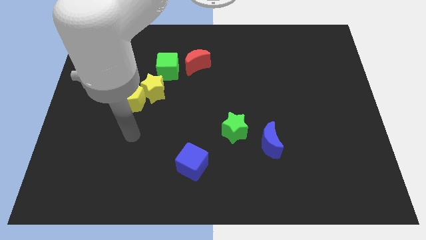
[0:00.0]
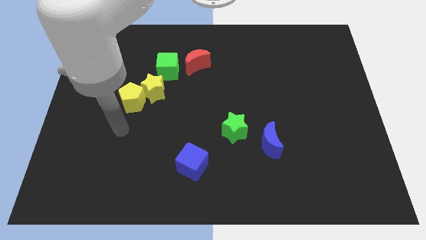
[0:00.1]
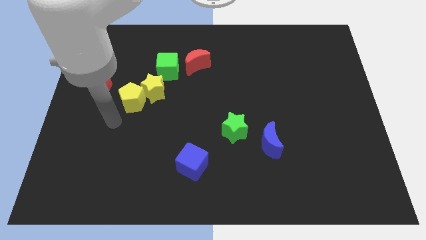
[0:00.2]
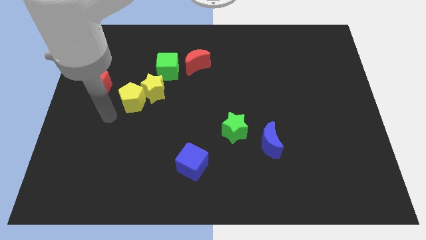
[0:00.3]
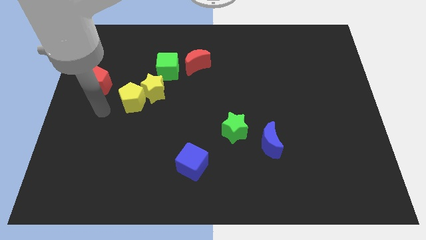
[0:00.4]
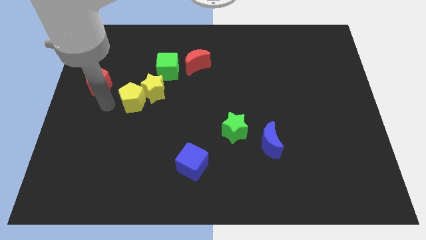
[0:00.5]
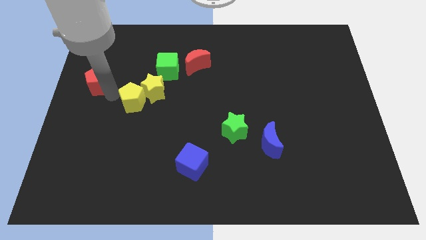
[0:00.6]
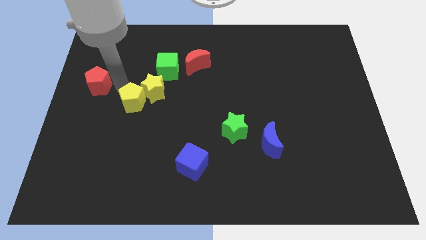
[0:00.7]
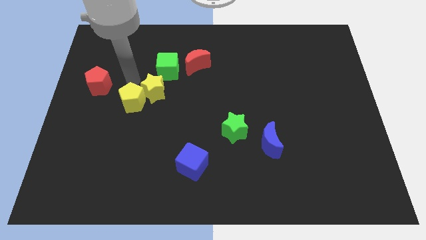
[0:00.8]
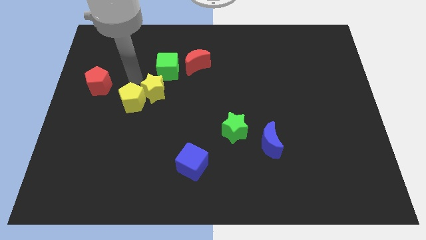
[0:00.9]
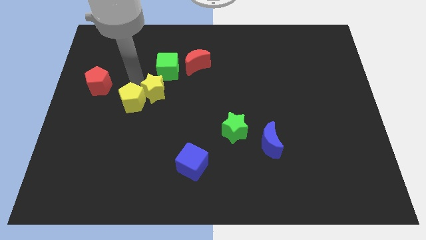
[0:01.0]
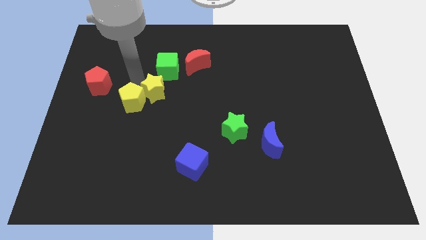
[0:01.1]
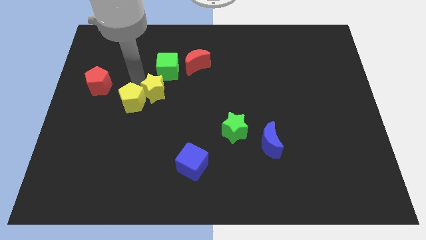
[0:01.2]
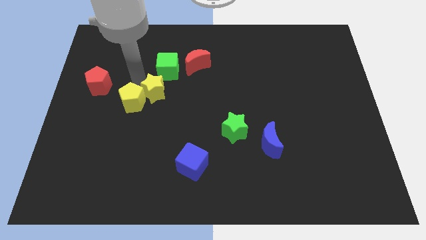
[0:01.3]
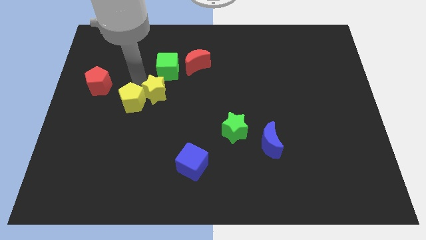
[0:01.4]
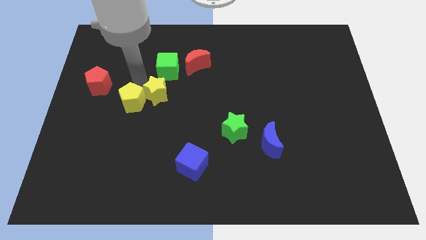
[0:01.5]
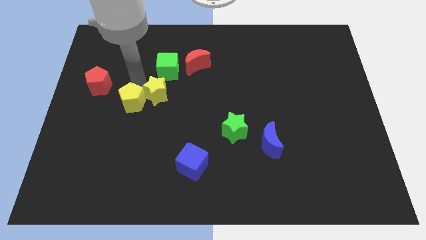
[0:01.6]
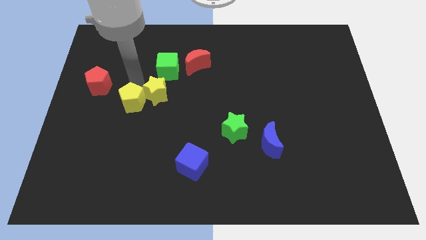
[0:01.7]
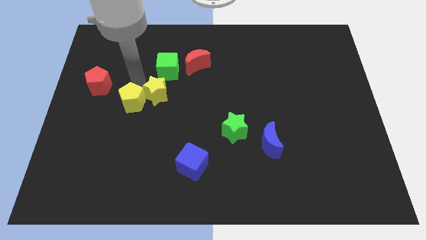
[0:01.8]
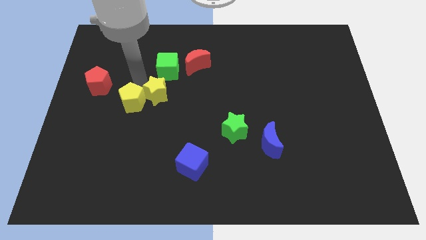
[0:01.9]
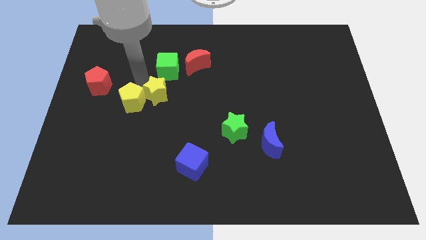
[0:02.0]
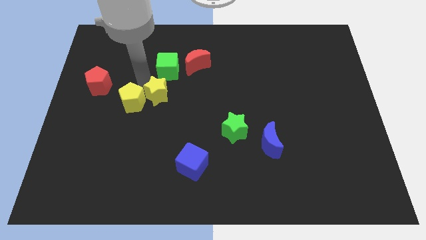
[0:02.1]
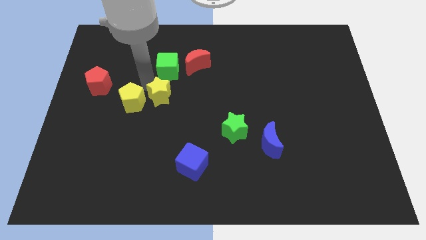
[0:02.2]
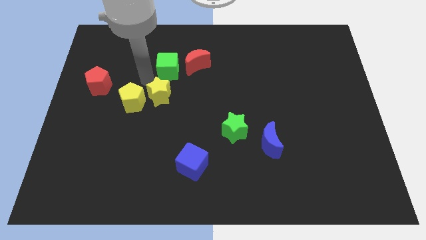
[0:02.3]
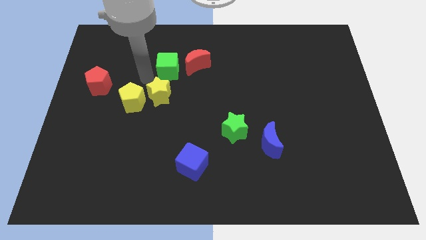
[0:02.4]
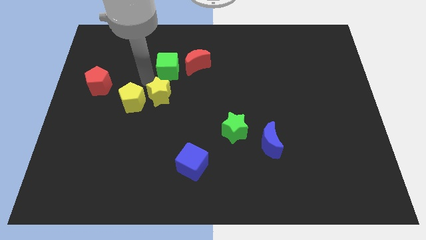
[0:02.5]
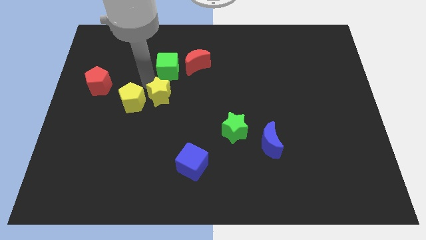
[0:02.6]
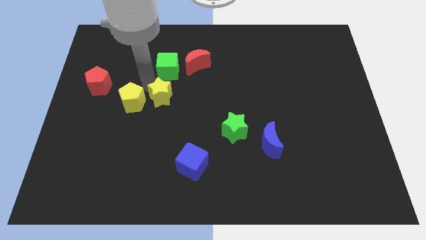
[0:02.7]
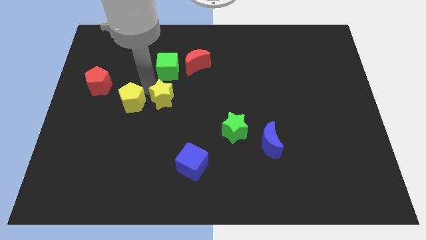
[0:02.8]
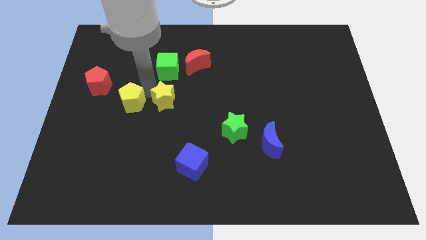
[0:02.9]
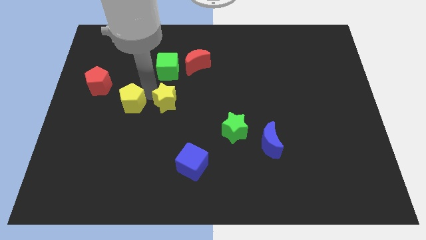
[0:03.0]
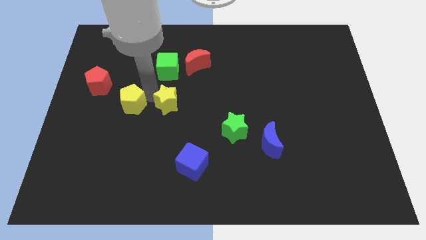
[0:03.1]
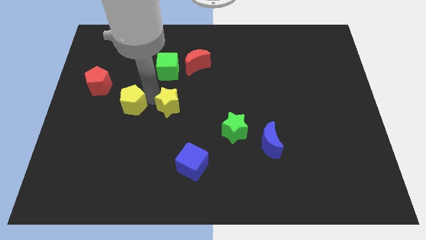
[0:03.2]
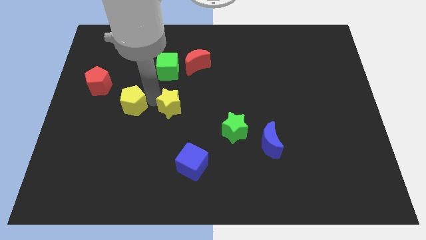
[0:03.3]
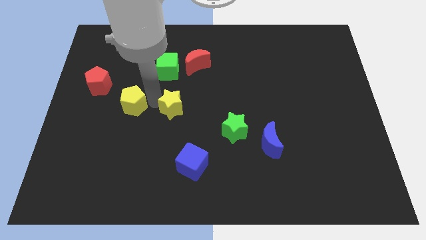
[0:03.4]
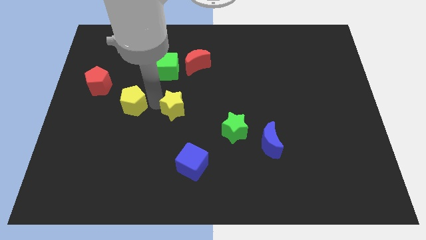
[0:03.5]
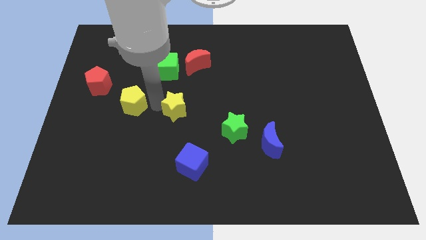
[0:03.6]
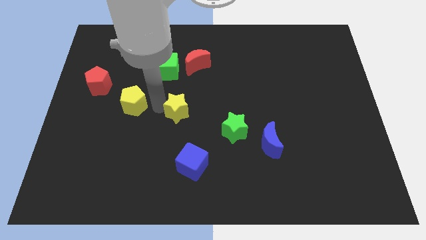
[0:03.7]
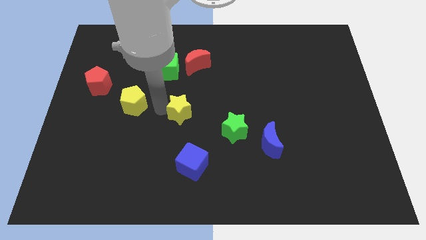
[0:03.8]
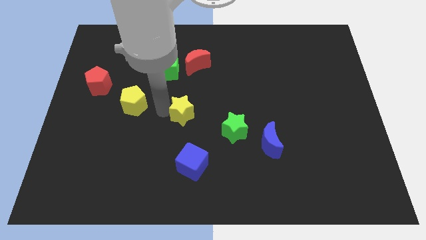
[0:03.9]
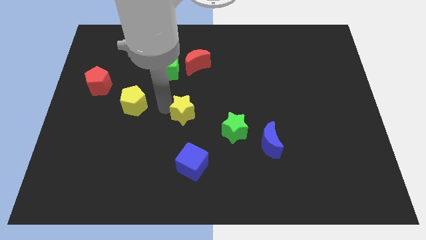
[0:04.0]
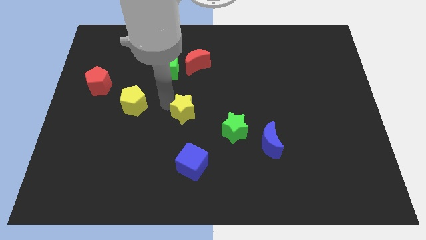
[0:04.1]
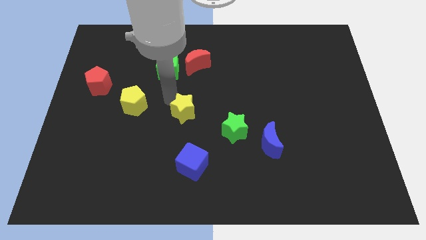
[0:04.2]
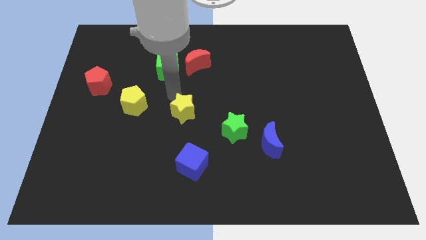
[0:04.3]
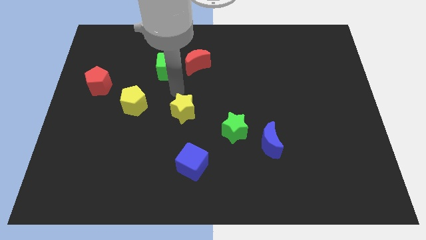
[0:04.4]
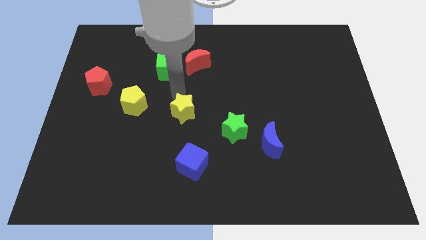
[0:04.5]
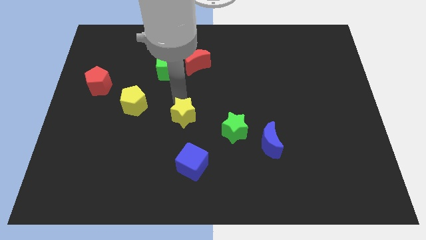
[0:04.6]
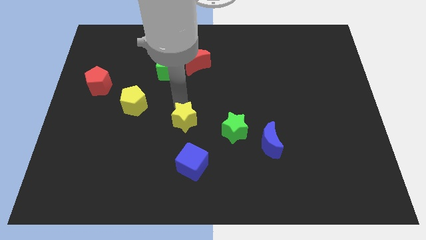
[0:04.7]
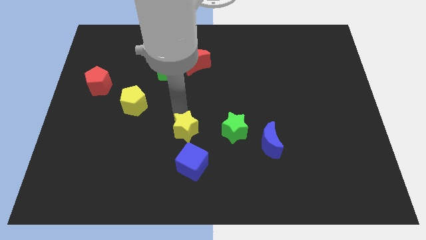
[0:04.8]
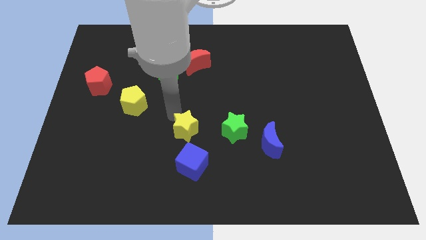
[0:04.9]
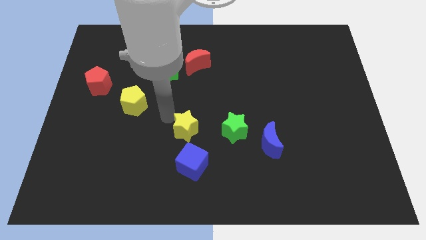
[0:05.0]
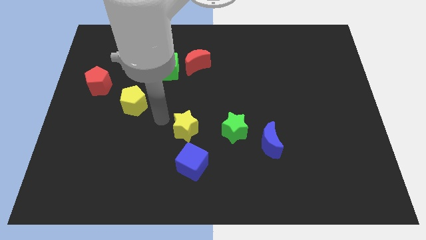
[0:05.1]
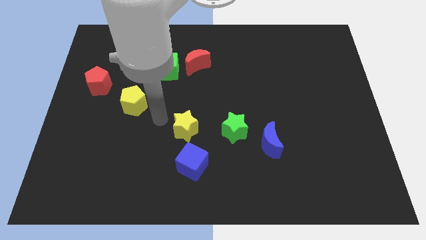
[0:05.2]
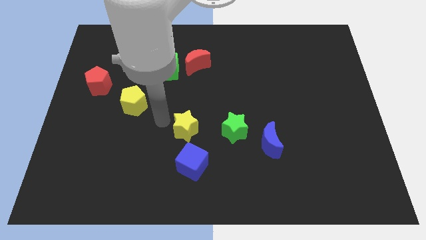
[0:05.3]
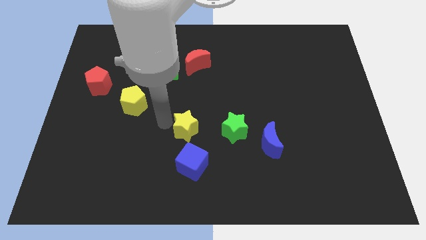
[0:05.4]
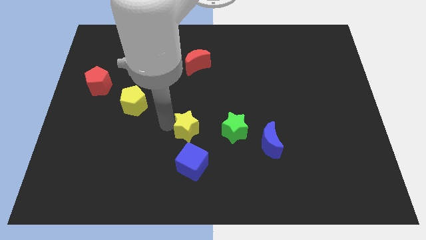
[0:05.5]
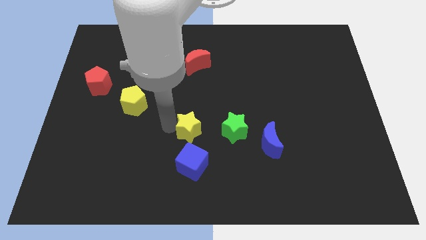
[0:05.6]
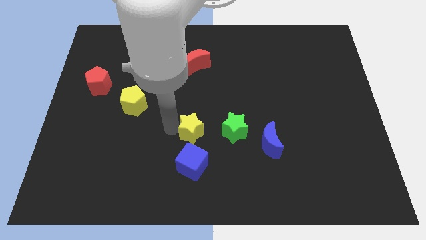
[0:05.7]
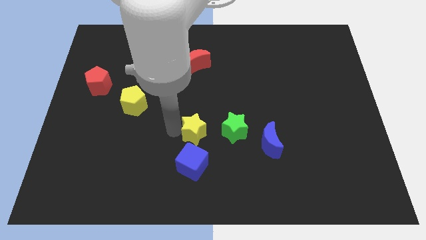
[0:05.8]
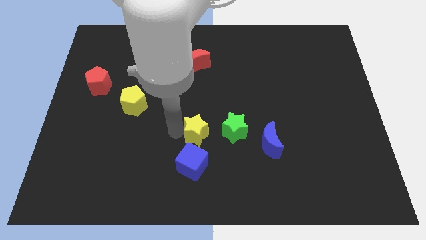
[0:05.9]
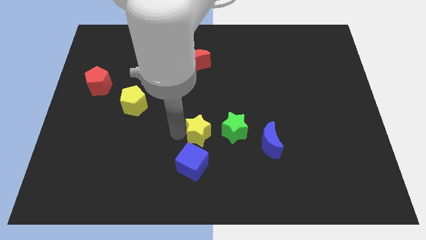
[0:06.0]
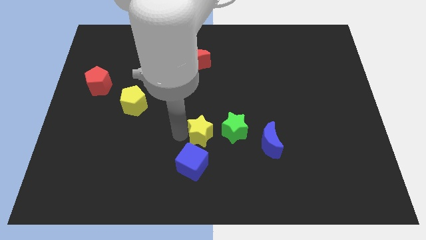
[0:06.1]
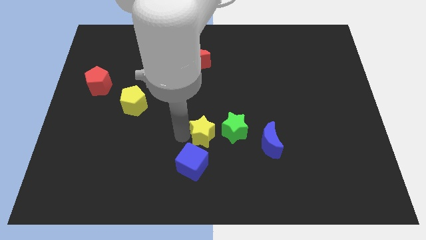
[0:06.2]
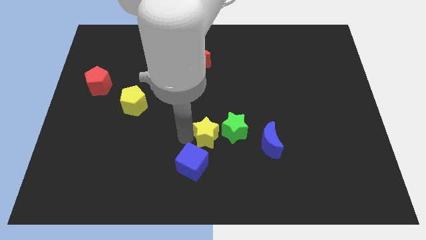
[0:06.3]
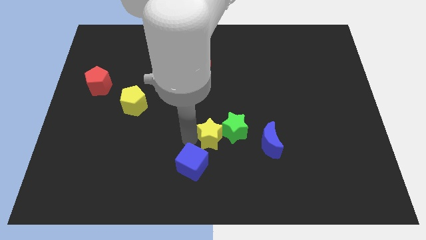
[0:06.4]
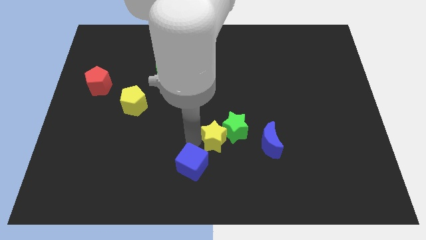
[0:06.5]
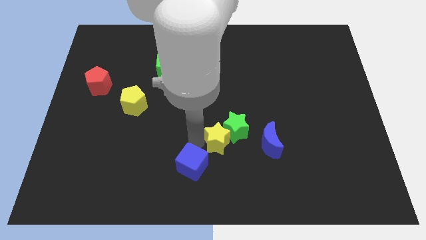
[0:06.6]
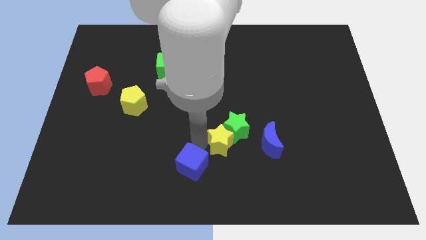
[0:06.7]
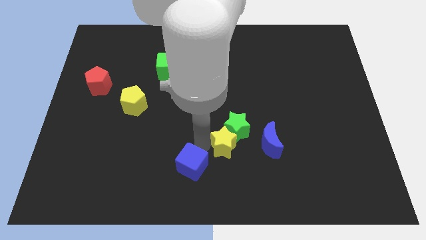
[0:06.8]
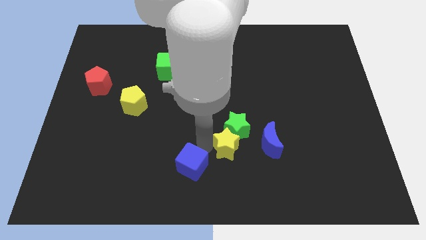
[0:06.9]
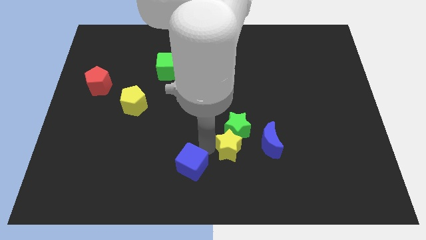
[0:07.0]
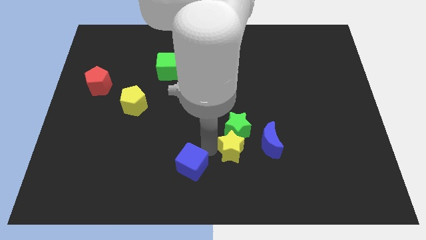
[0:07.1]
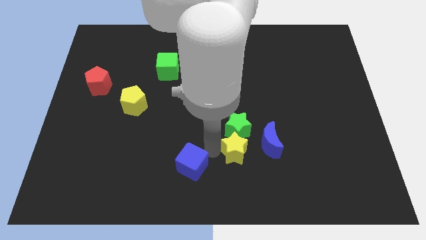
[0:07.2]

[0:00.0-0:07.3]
move the yellow star to the bottom right side of the green star

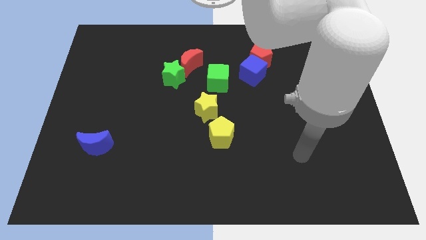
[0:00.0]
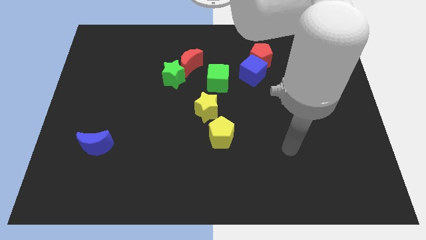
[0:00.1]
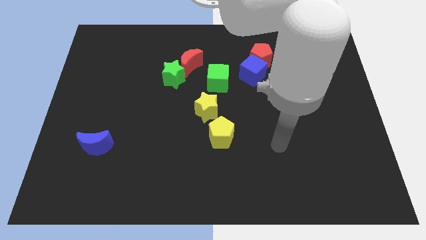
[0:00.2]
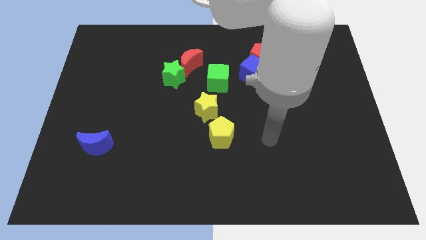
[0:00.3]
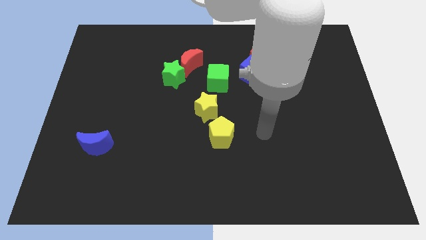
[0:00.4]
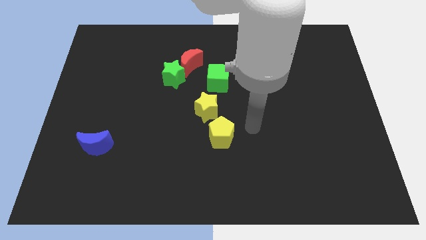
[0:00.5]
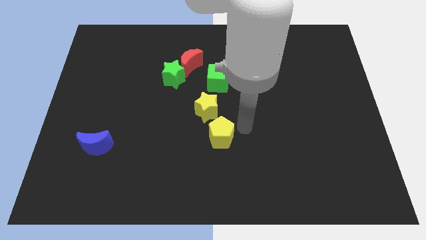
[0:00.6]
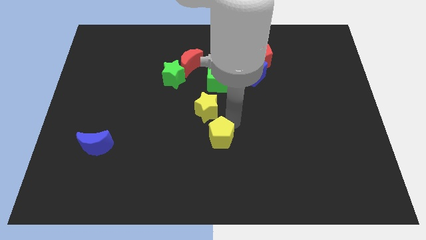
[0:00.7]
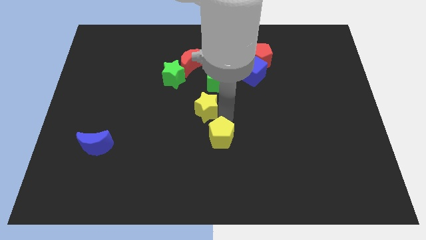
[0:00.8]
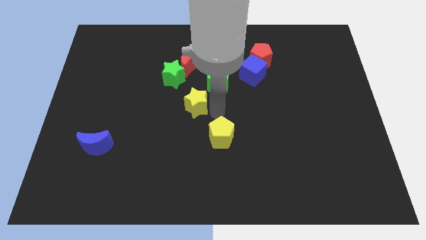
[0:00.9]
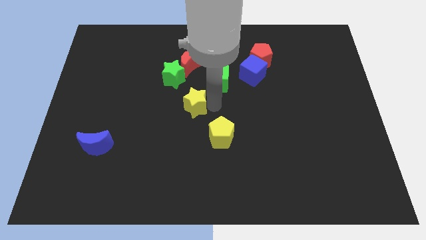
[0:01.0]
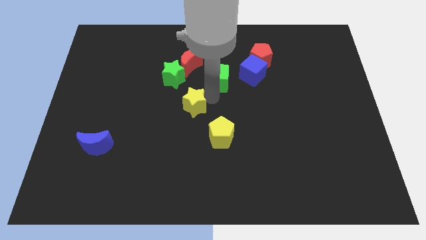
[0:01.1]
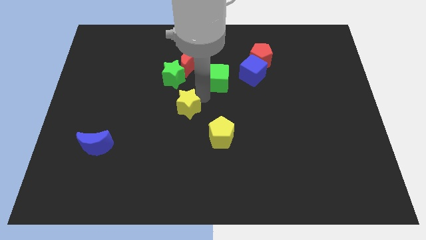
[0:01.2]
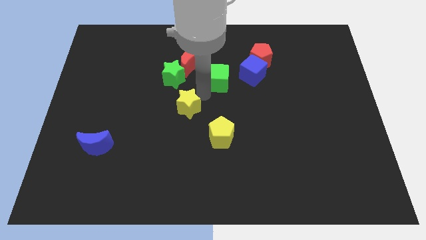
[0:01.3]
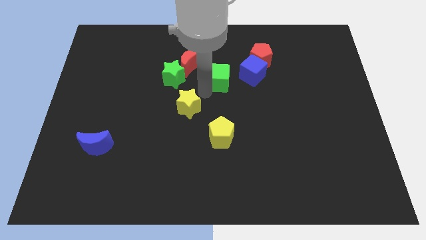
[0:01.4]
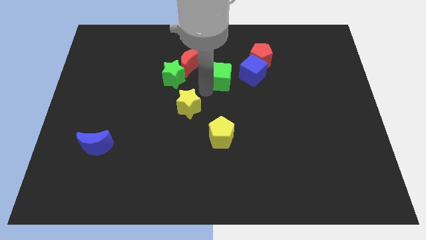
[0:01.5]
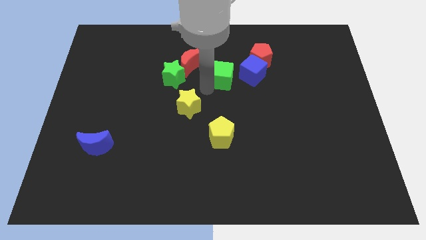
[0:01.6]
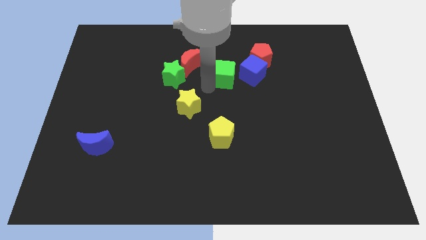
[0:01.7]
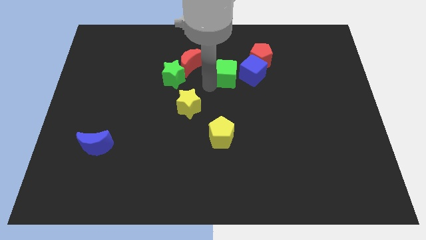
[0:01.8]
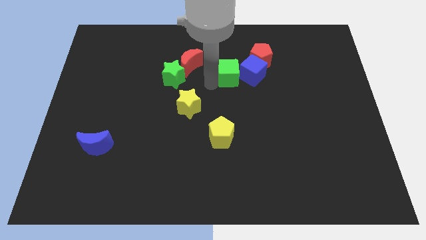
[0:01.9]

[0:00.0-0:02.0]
move the green cube to the top left side of the blue cube
